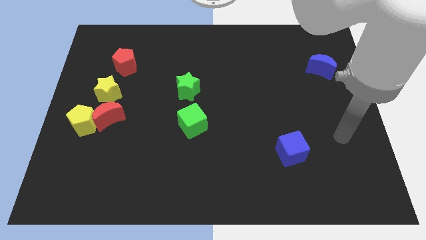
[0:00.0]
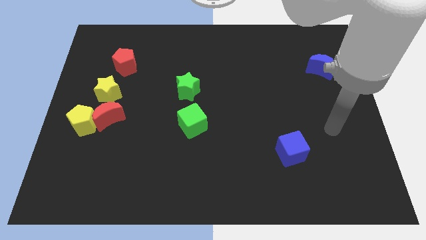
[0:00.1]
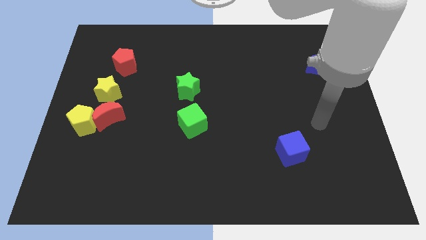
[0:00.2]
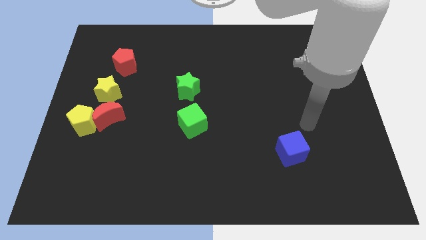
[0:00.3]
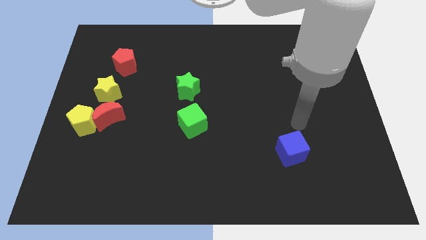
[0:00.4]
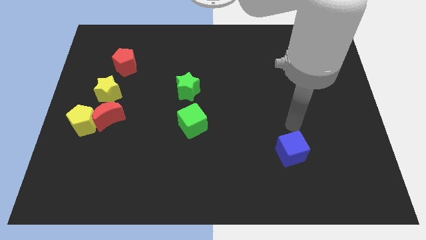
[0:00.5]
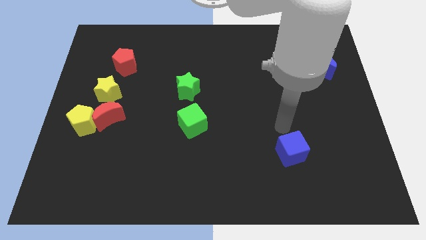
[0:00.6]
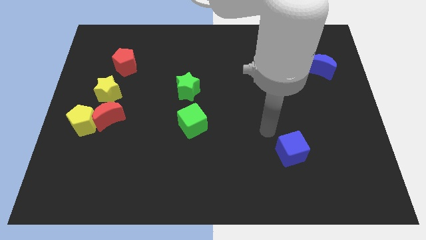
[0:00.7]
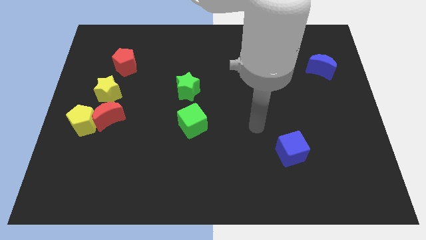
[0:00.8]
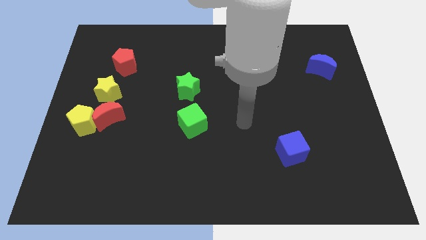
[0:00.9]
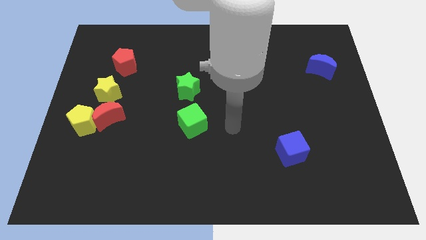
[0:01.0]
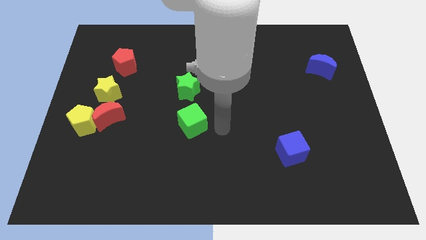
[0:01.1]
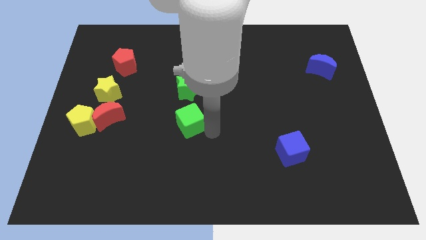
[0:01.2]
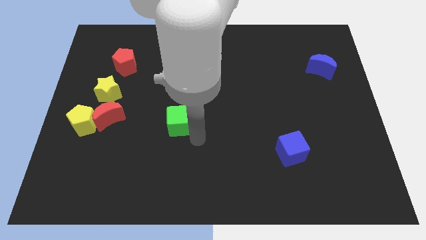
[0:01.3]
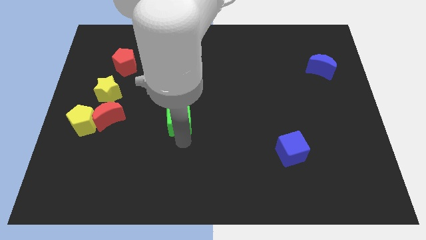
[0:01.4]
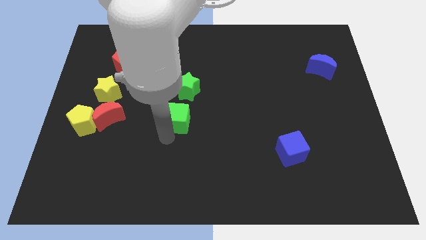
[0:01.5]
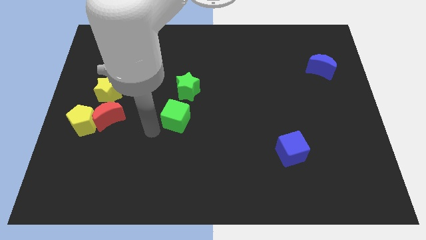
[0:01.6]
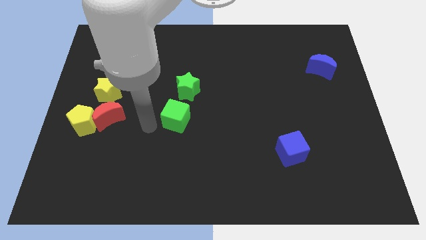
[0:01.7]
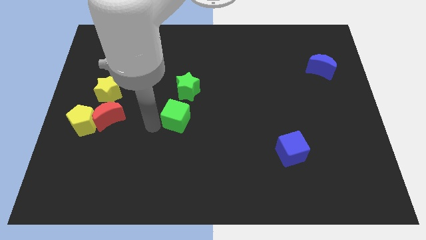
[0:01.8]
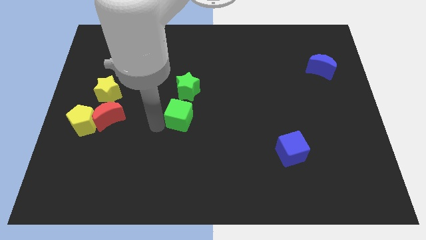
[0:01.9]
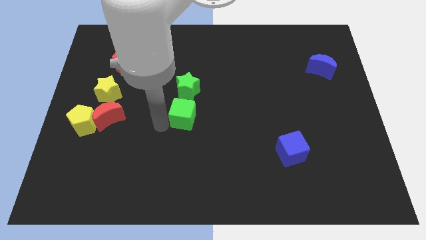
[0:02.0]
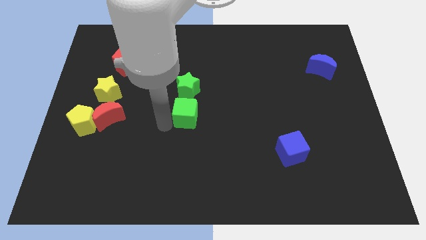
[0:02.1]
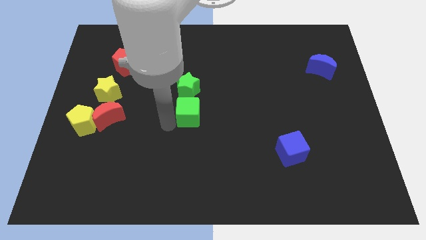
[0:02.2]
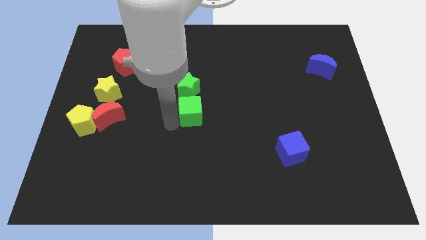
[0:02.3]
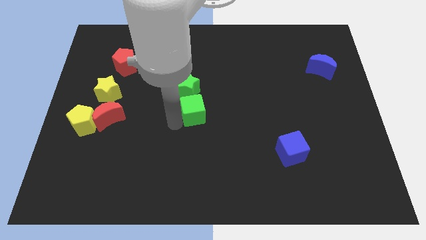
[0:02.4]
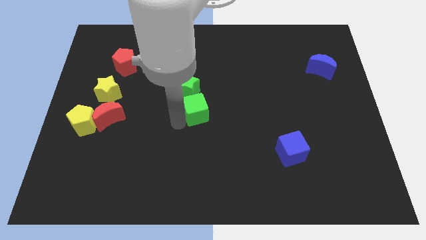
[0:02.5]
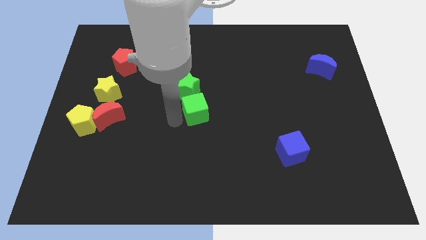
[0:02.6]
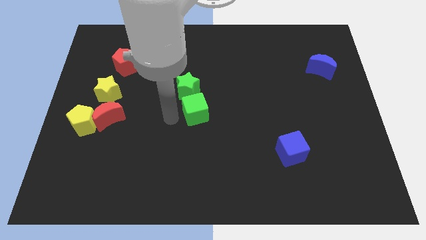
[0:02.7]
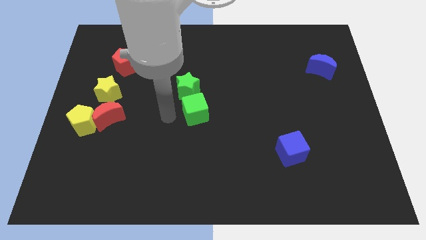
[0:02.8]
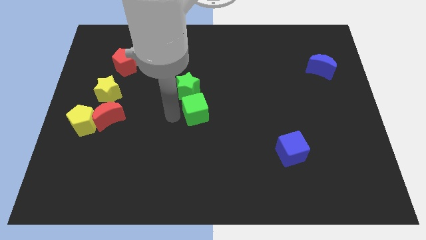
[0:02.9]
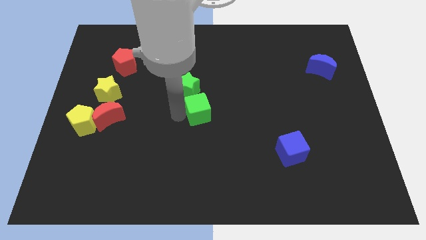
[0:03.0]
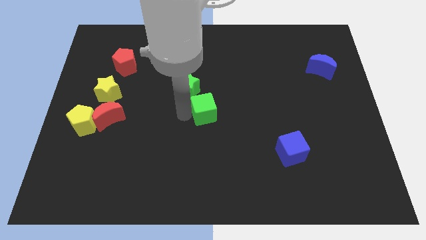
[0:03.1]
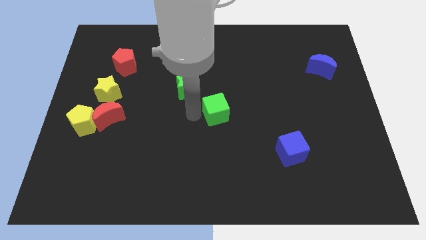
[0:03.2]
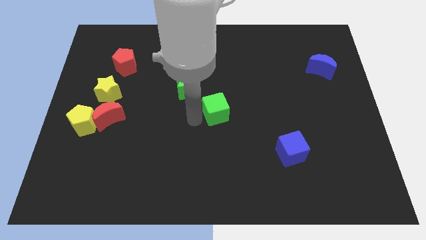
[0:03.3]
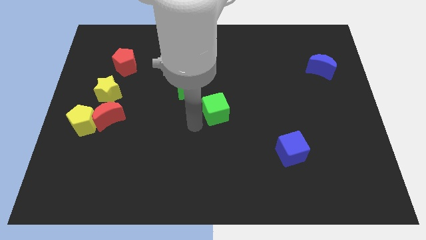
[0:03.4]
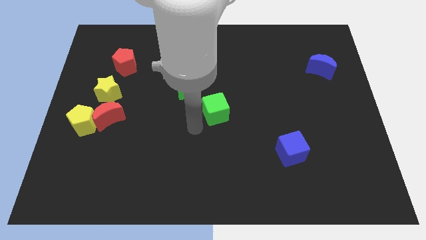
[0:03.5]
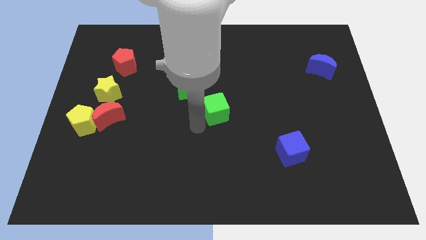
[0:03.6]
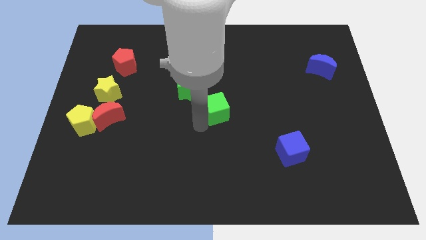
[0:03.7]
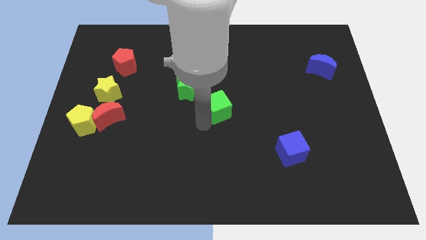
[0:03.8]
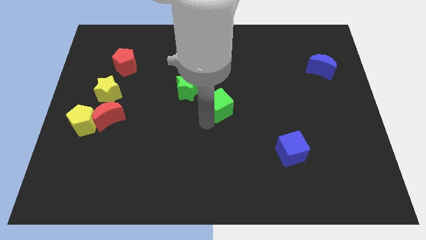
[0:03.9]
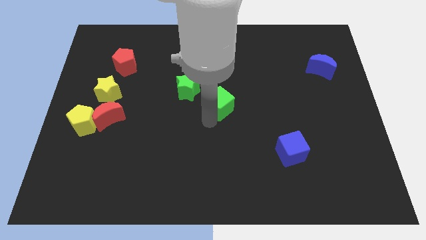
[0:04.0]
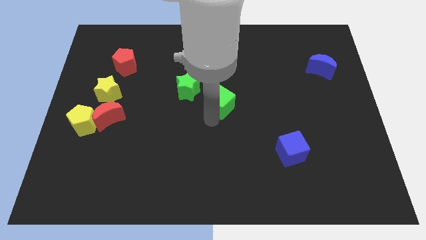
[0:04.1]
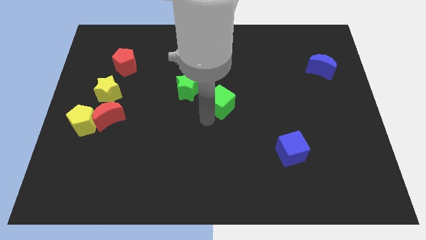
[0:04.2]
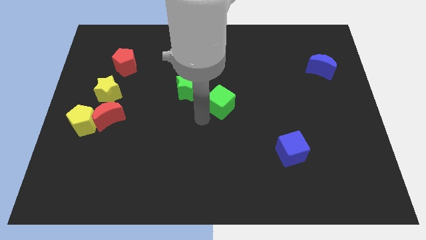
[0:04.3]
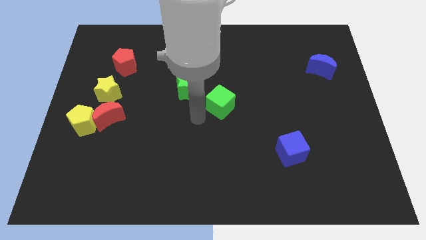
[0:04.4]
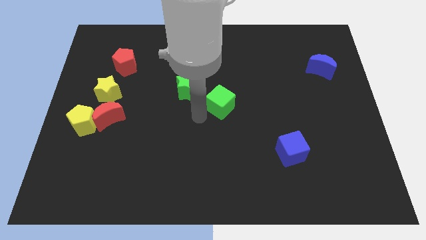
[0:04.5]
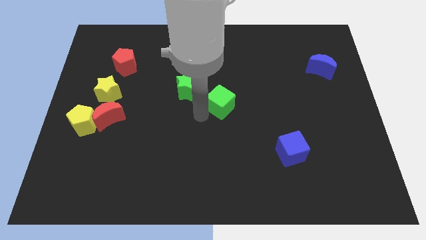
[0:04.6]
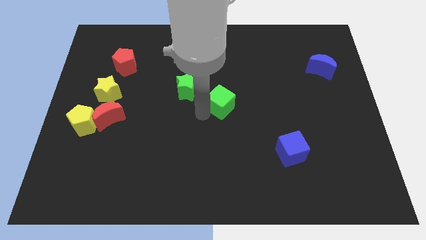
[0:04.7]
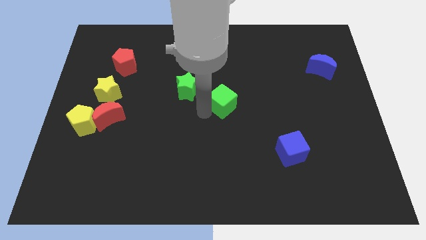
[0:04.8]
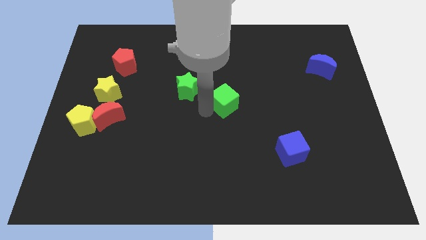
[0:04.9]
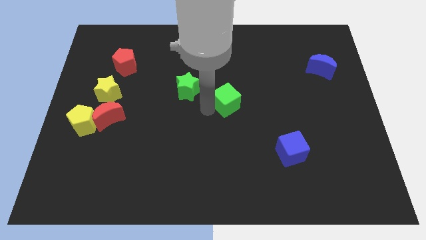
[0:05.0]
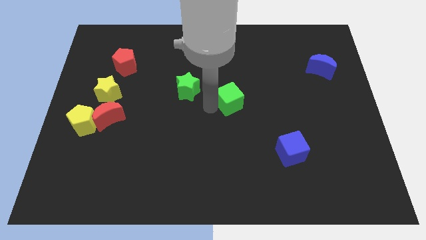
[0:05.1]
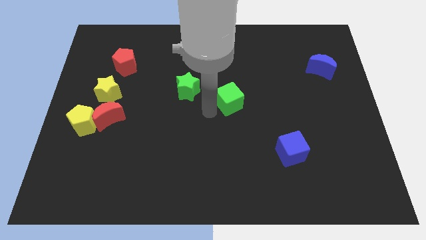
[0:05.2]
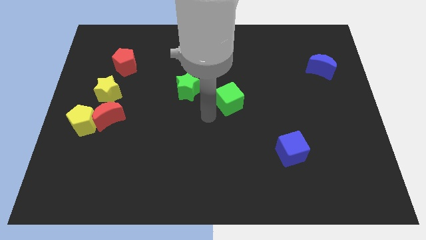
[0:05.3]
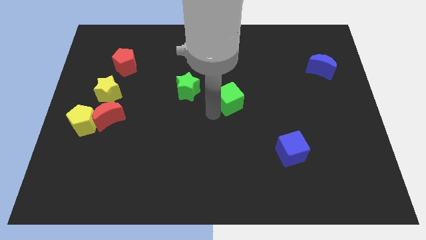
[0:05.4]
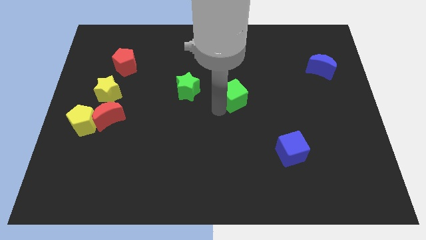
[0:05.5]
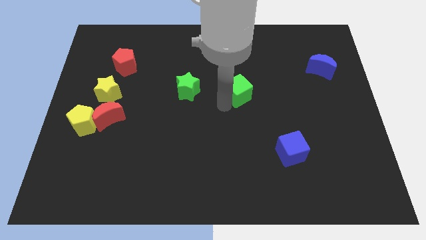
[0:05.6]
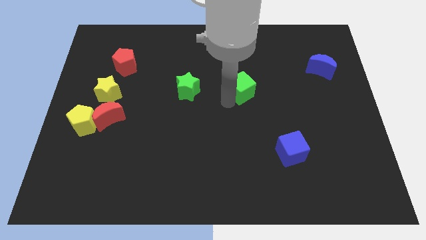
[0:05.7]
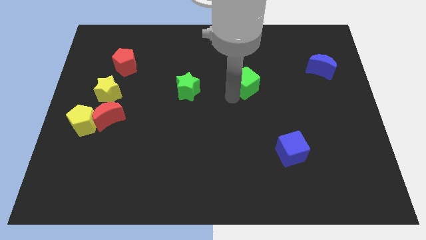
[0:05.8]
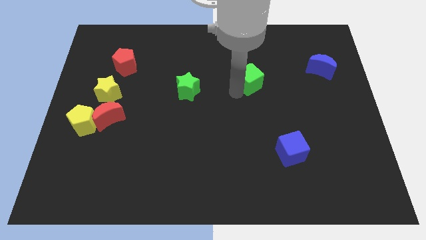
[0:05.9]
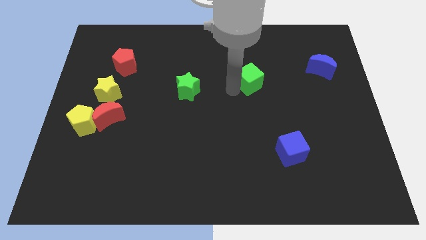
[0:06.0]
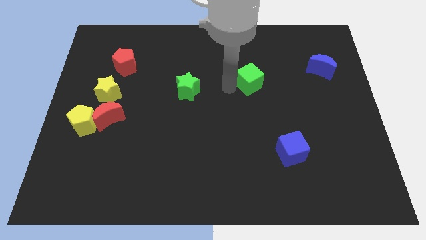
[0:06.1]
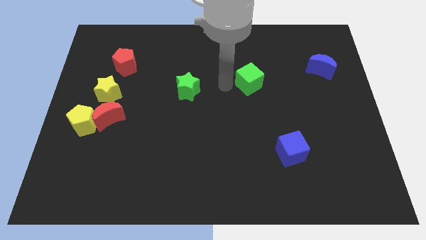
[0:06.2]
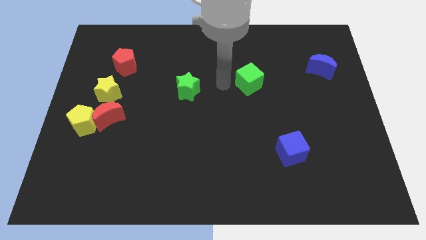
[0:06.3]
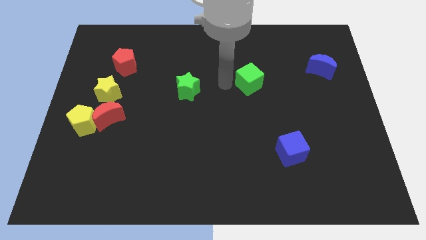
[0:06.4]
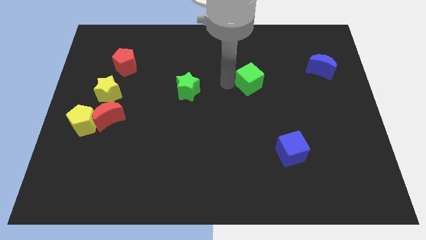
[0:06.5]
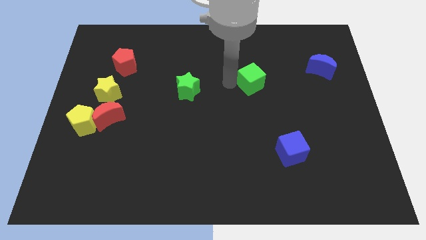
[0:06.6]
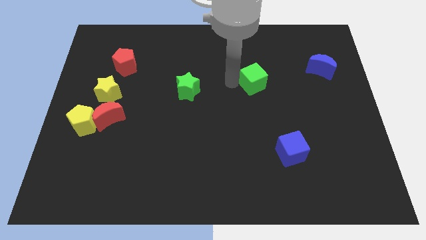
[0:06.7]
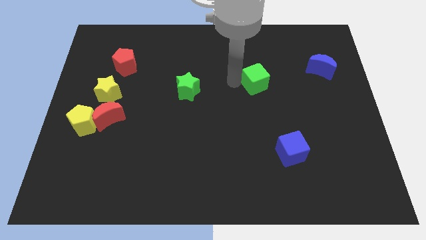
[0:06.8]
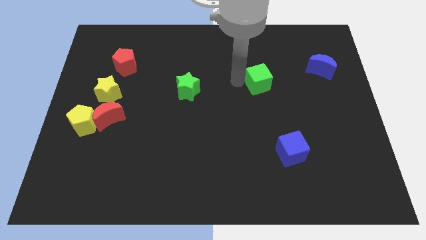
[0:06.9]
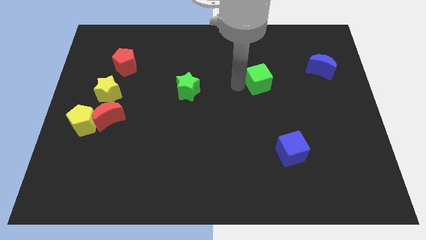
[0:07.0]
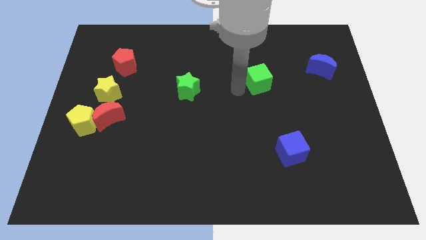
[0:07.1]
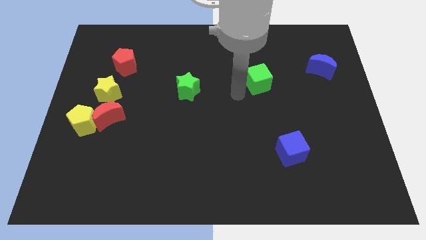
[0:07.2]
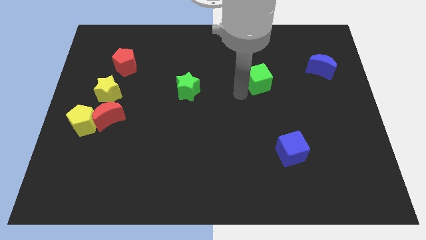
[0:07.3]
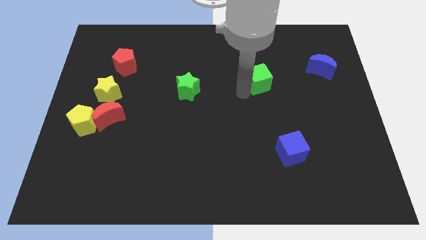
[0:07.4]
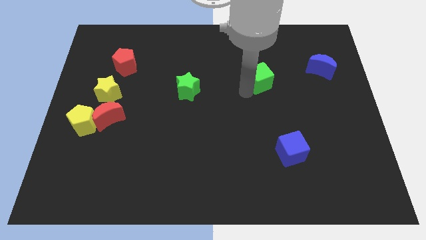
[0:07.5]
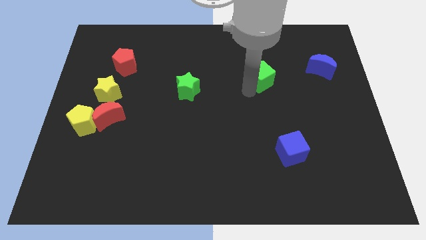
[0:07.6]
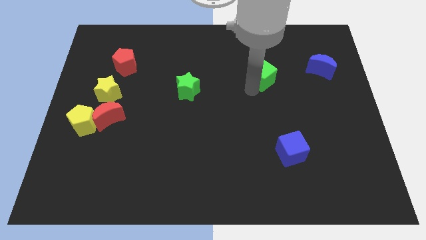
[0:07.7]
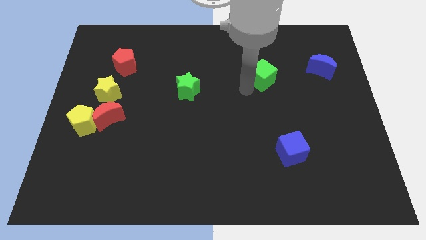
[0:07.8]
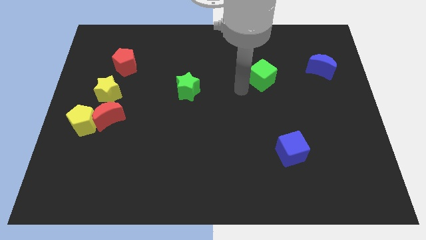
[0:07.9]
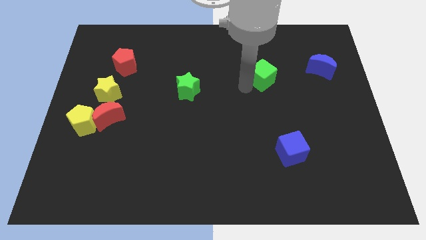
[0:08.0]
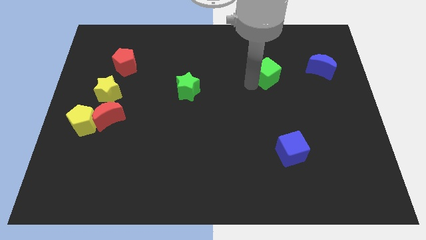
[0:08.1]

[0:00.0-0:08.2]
slide the green cube left of the blue moon
